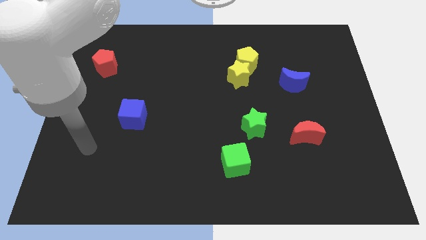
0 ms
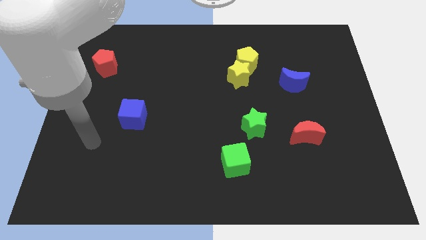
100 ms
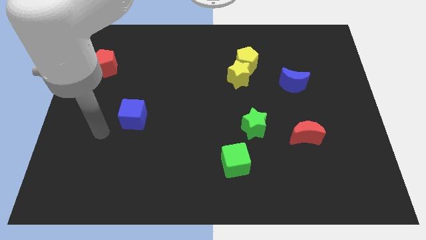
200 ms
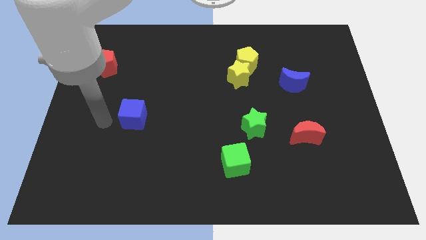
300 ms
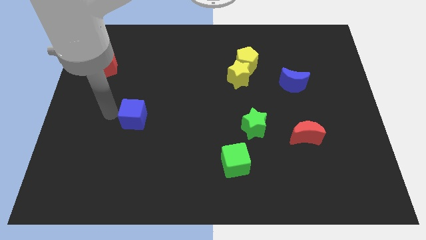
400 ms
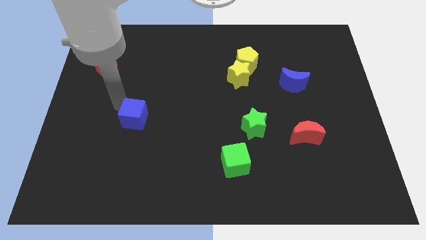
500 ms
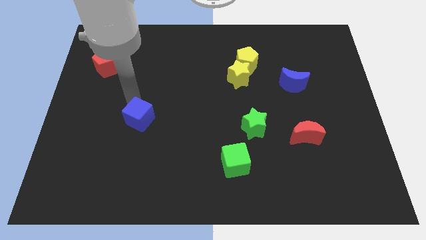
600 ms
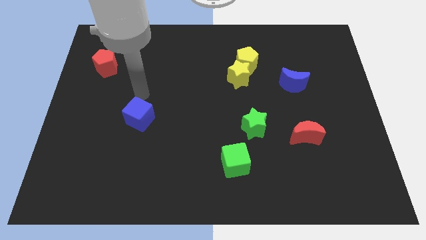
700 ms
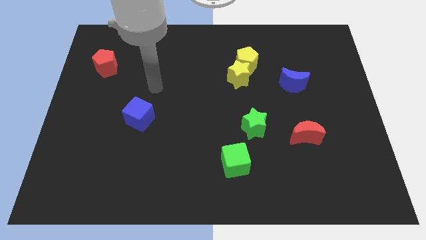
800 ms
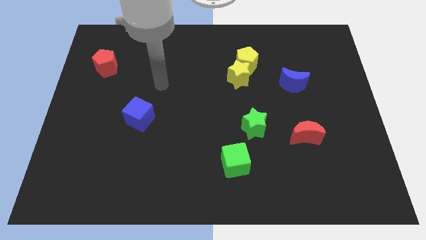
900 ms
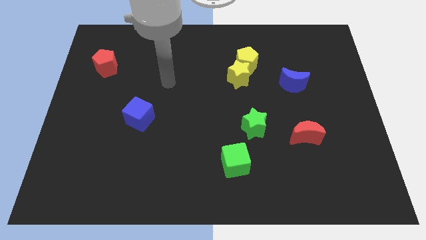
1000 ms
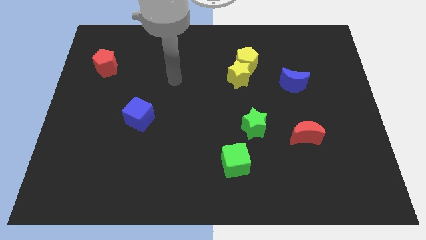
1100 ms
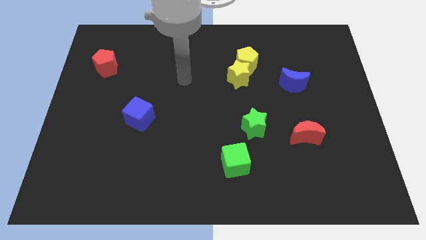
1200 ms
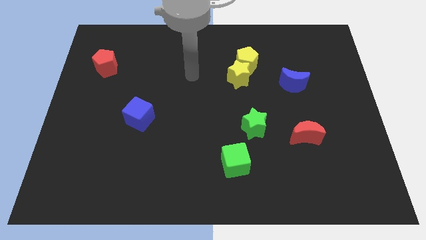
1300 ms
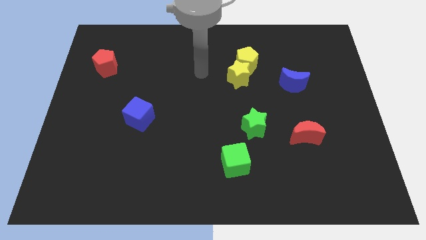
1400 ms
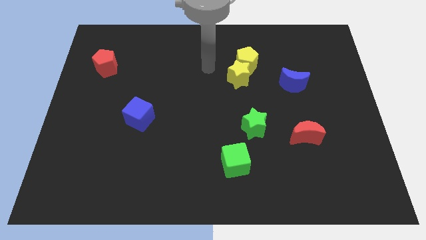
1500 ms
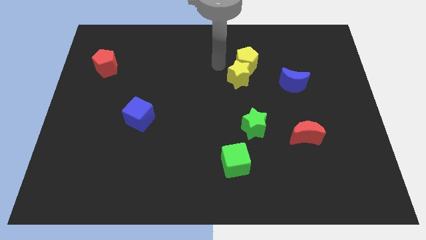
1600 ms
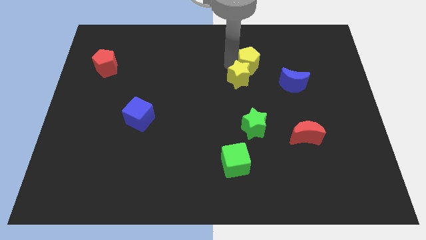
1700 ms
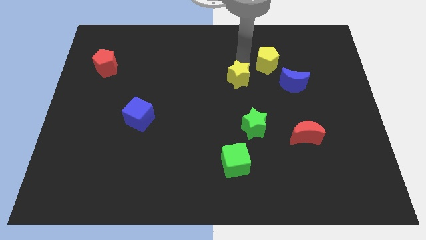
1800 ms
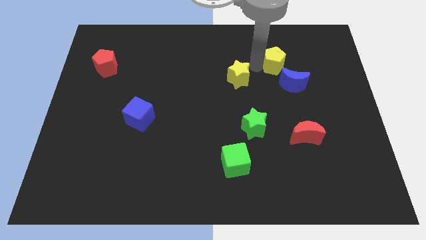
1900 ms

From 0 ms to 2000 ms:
pull the yellow star apart from the yellow pentagon

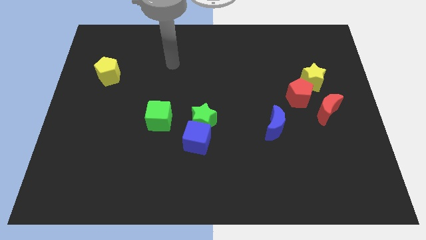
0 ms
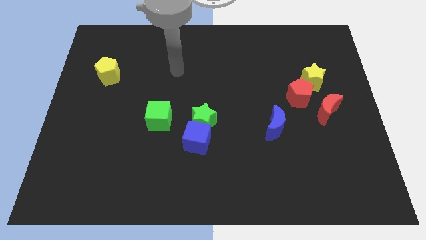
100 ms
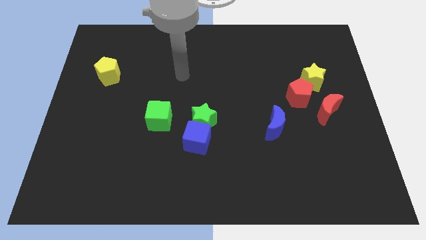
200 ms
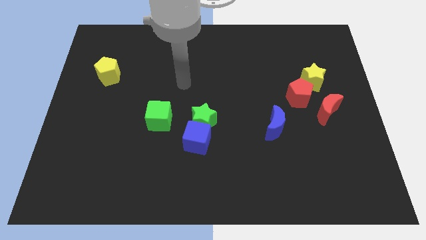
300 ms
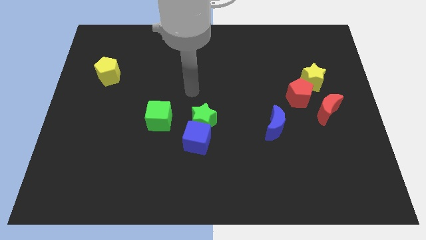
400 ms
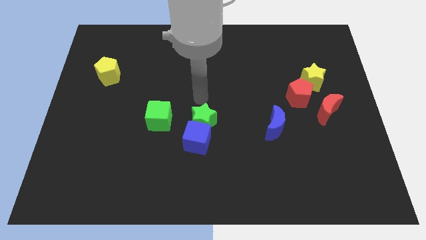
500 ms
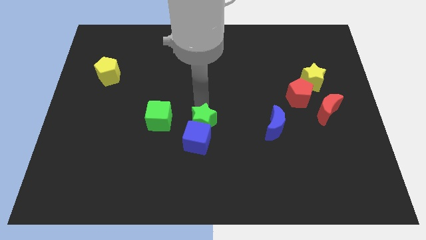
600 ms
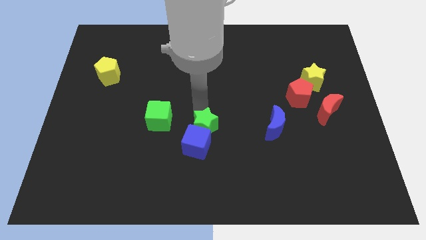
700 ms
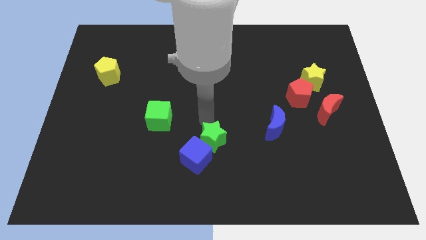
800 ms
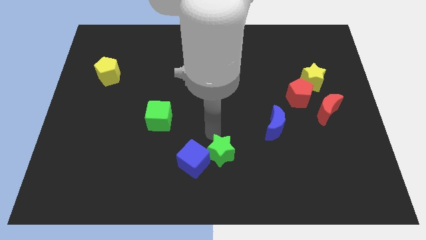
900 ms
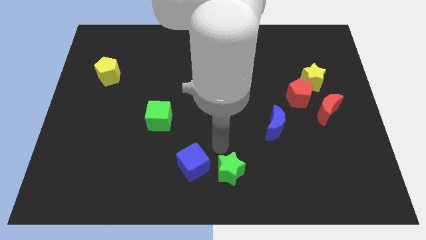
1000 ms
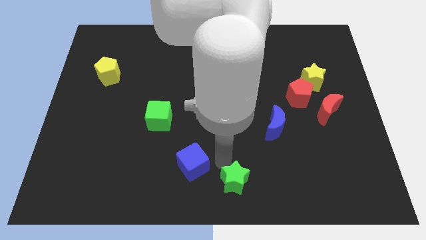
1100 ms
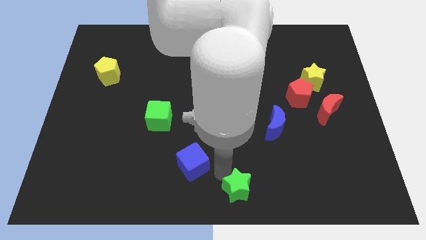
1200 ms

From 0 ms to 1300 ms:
separate the blue cube from the green star

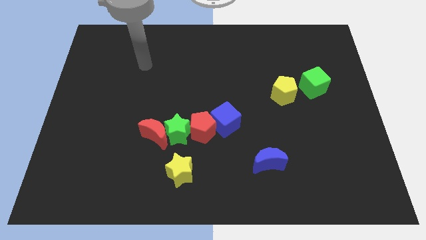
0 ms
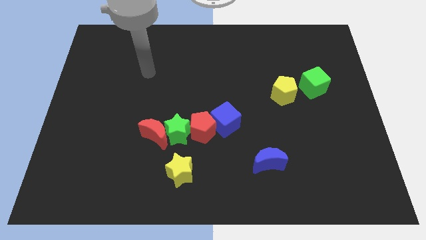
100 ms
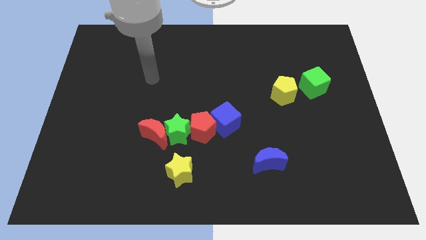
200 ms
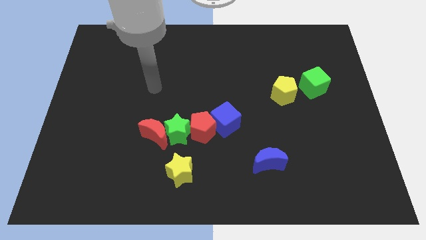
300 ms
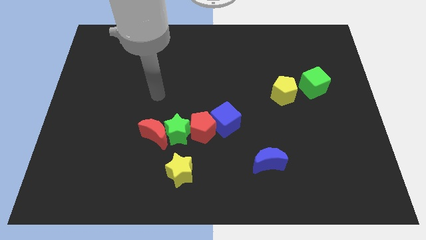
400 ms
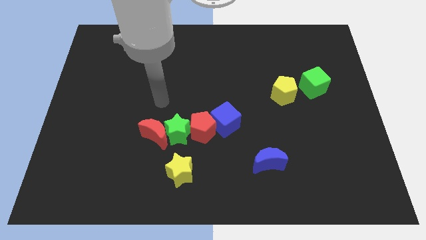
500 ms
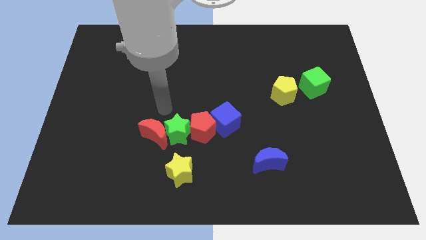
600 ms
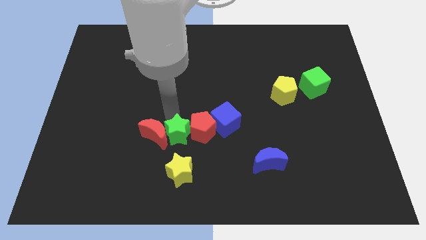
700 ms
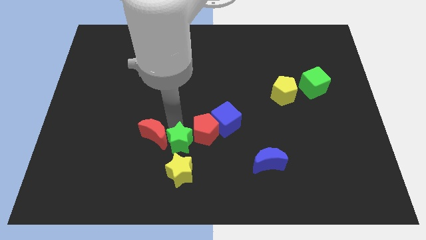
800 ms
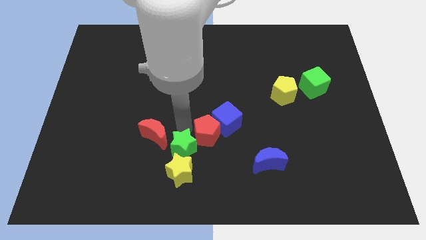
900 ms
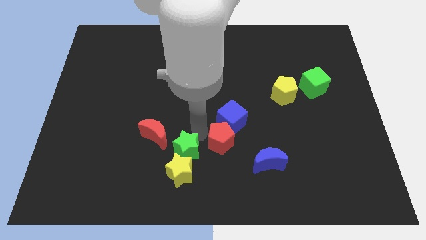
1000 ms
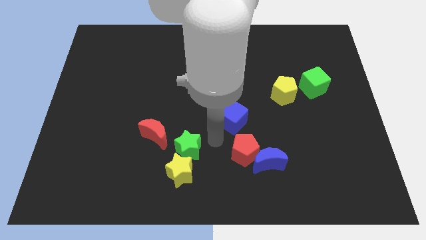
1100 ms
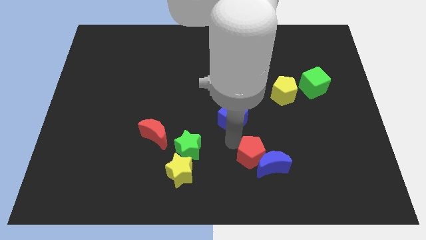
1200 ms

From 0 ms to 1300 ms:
move the blue cube away from the red pentagon

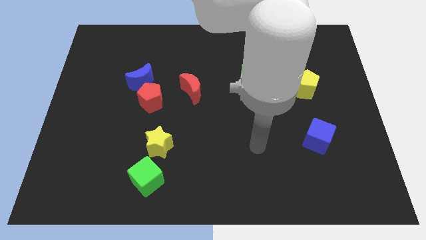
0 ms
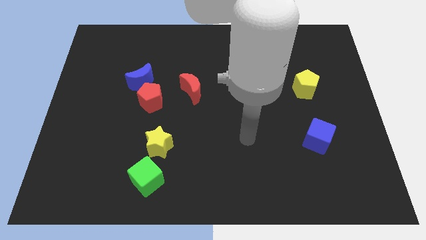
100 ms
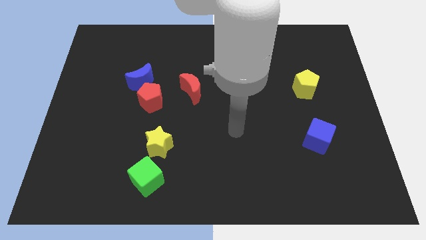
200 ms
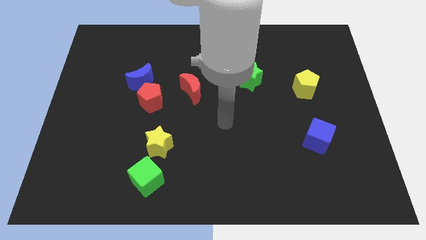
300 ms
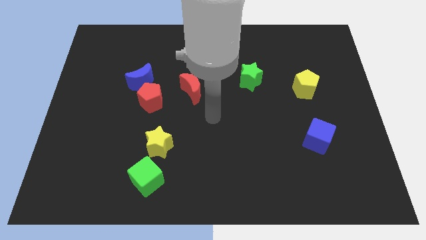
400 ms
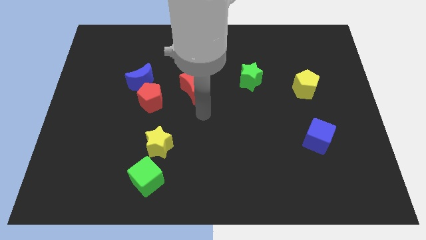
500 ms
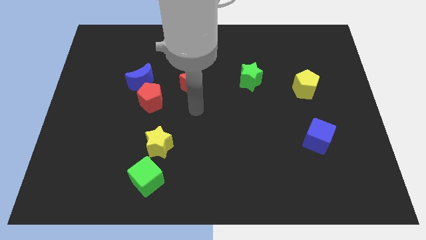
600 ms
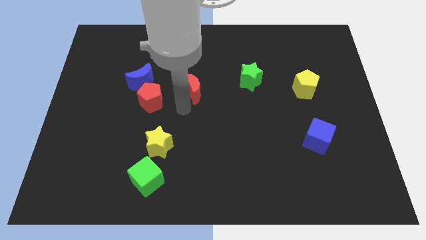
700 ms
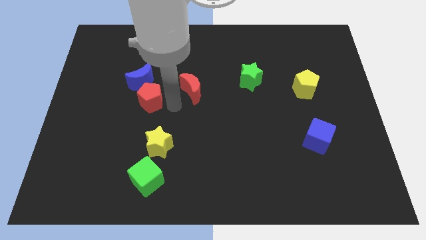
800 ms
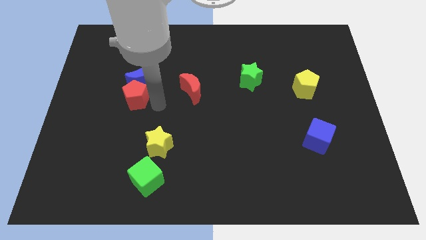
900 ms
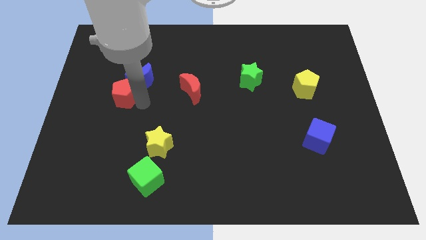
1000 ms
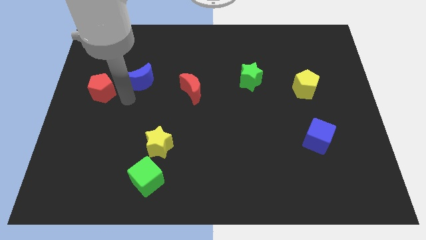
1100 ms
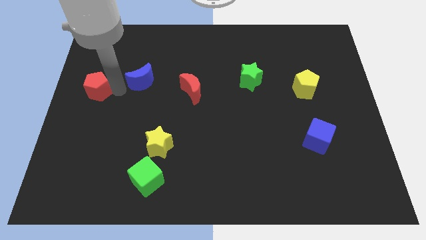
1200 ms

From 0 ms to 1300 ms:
move the blue moon away from the red pentagon

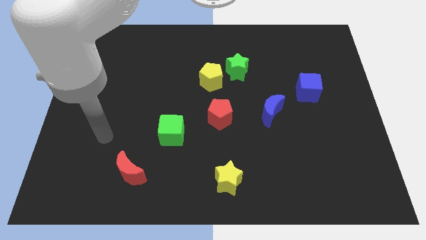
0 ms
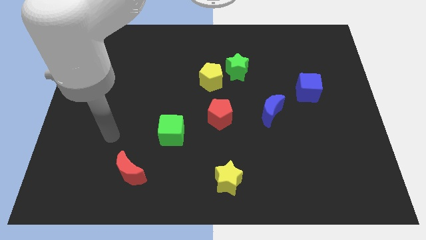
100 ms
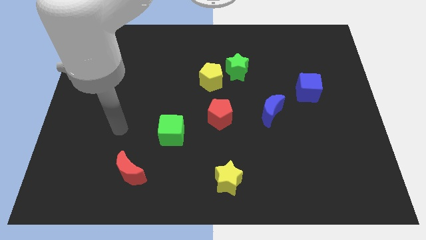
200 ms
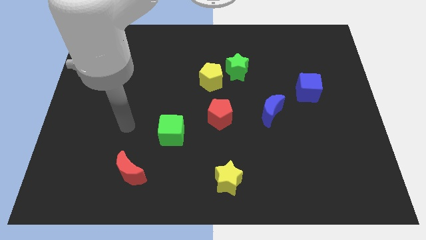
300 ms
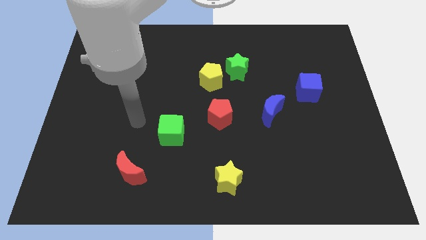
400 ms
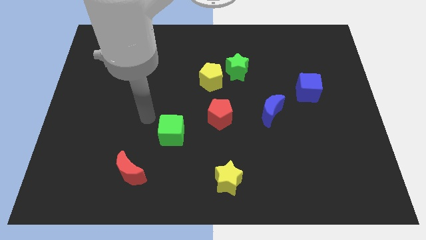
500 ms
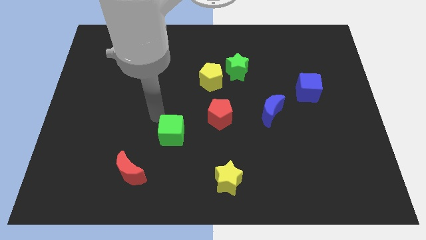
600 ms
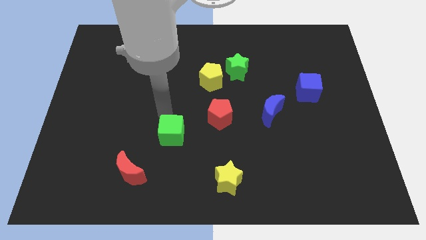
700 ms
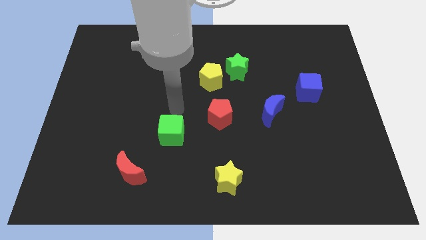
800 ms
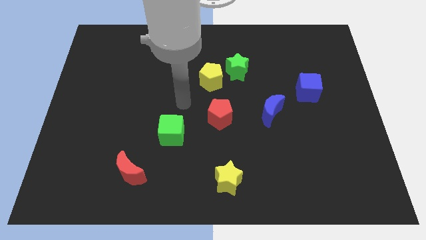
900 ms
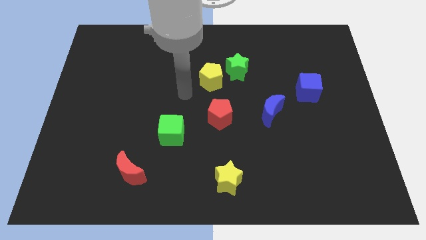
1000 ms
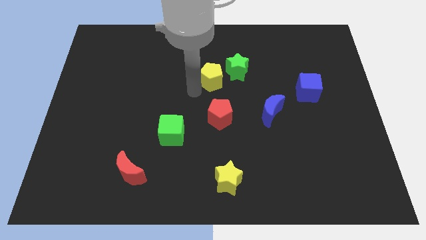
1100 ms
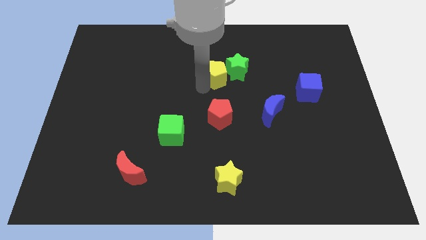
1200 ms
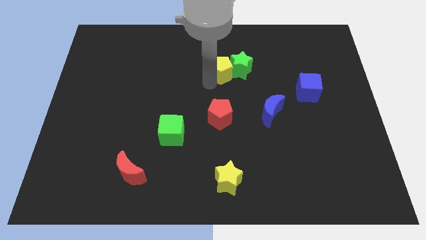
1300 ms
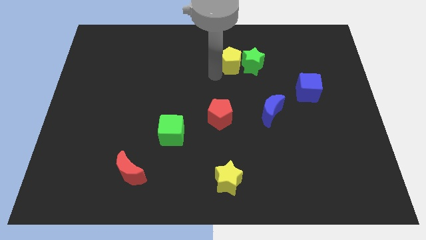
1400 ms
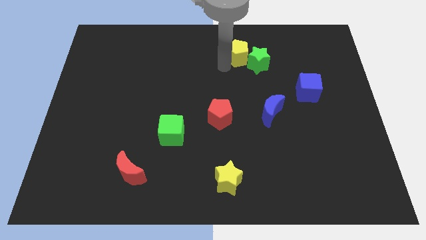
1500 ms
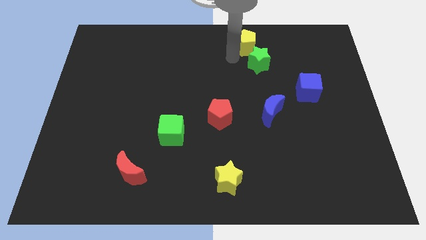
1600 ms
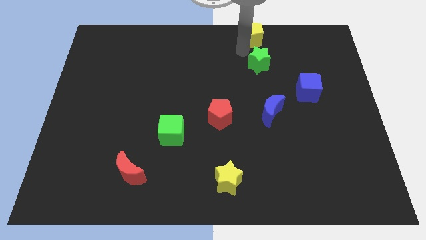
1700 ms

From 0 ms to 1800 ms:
pull the green star apart from the yellow pentagon

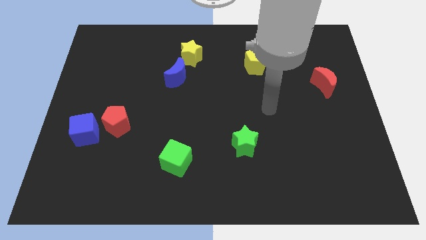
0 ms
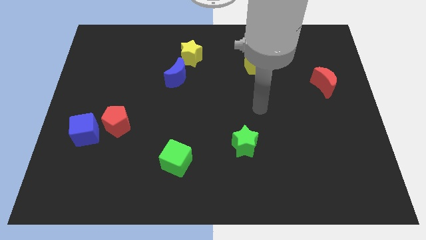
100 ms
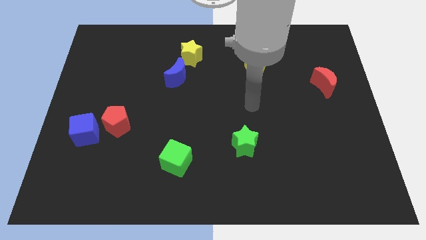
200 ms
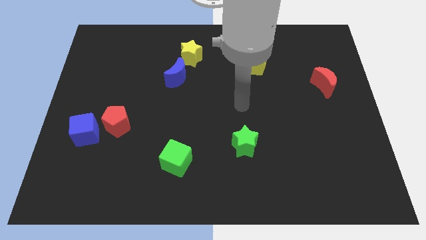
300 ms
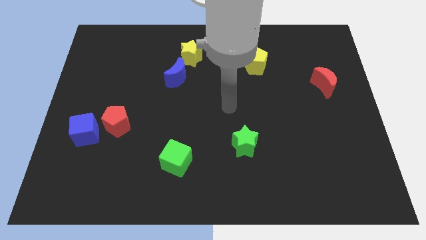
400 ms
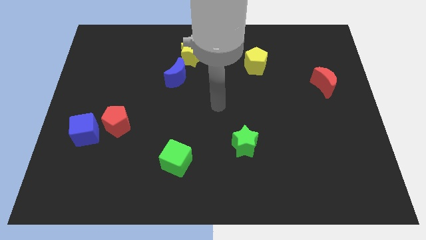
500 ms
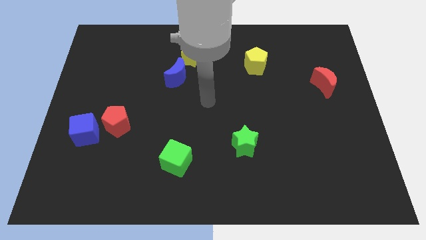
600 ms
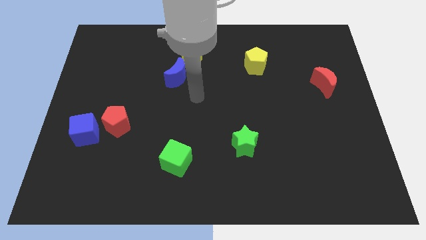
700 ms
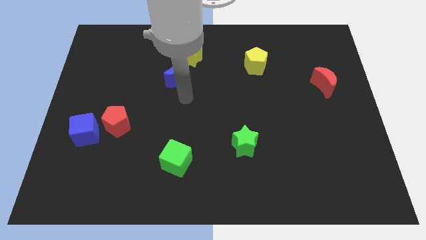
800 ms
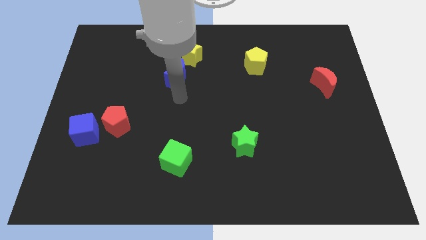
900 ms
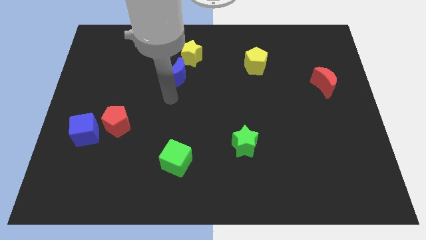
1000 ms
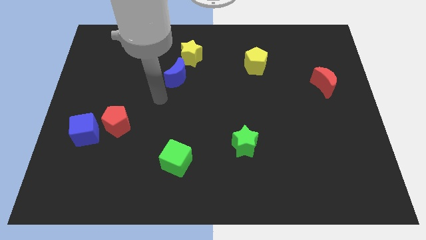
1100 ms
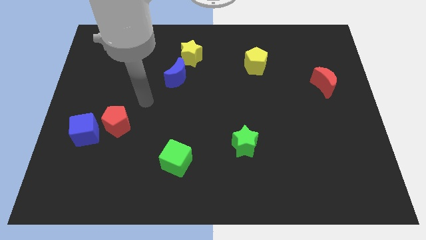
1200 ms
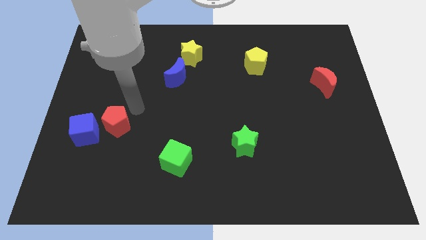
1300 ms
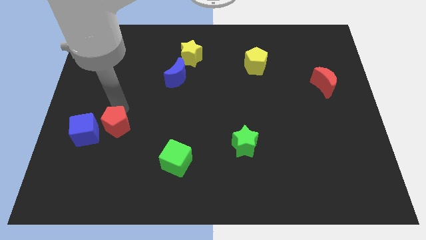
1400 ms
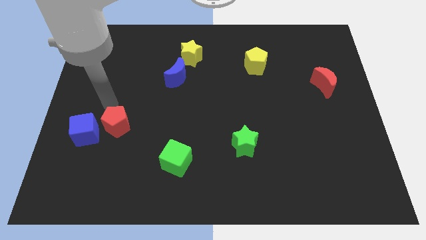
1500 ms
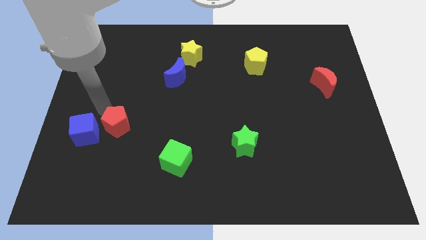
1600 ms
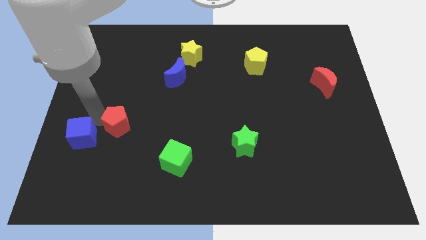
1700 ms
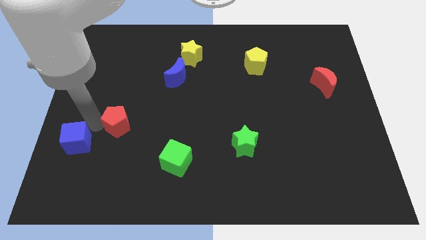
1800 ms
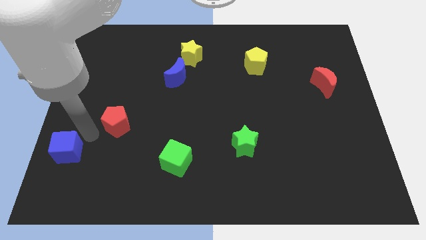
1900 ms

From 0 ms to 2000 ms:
separate the red pentagon from the blue cube
